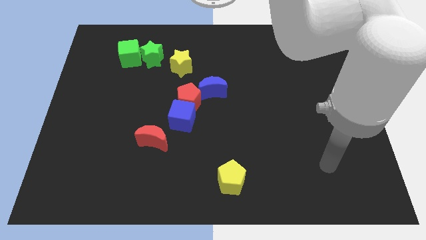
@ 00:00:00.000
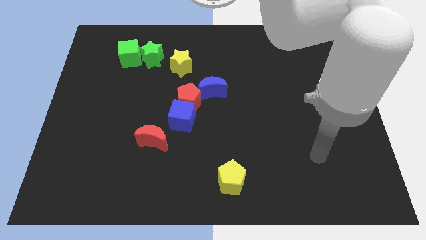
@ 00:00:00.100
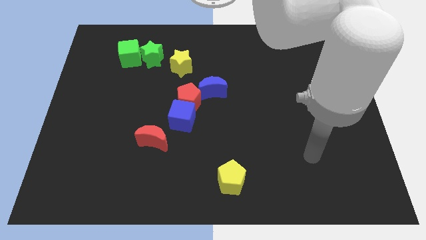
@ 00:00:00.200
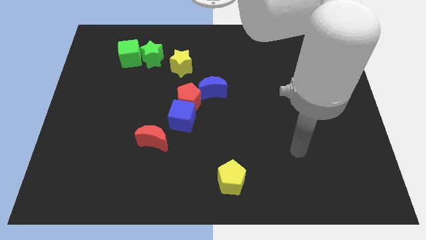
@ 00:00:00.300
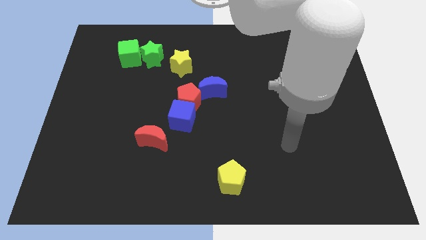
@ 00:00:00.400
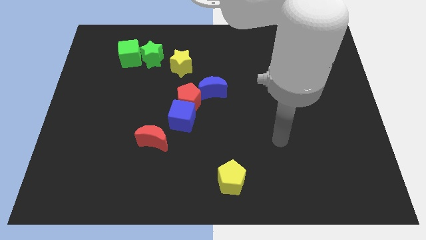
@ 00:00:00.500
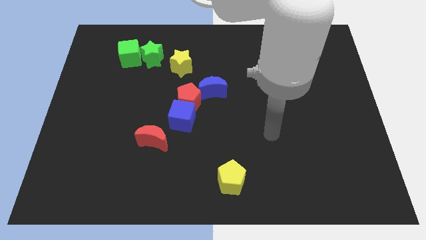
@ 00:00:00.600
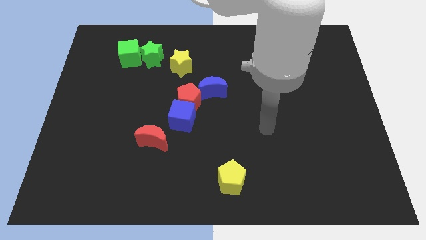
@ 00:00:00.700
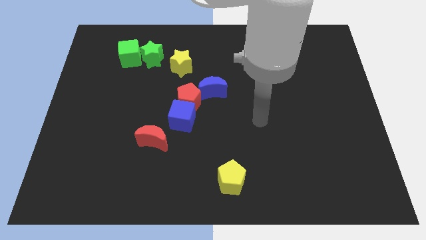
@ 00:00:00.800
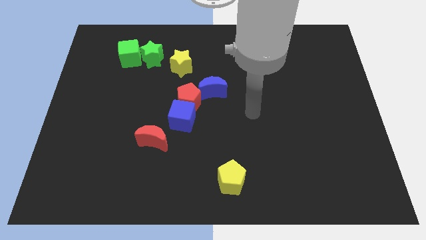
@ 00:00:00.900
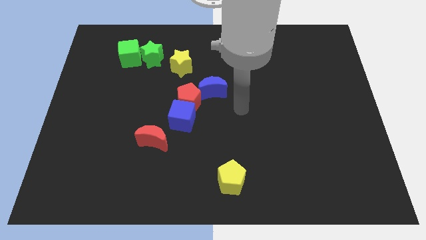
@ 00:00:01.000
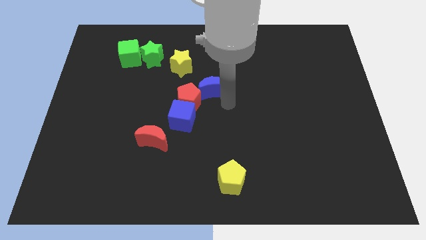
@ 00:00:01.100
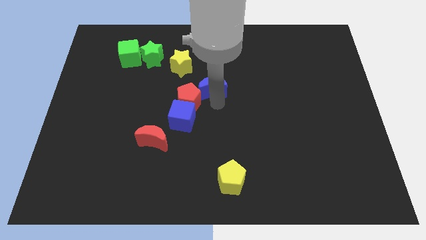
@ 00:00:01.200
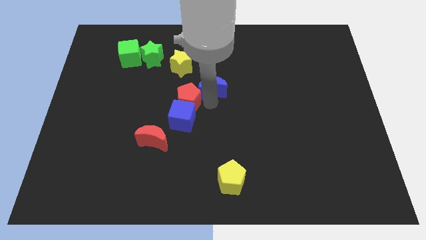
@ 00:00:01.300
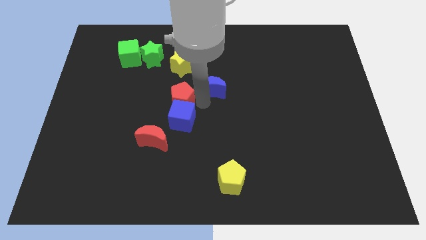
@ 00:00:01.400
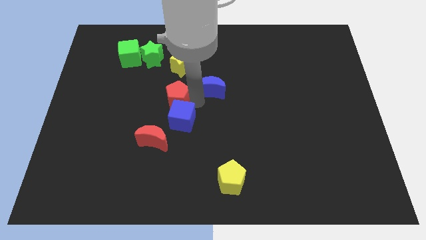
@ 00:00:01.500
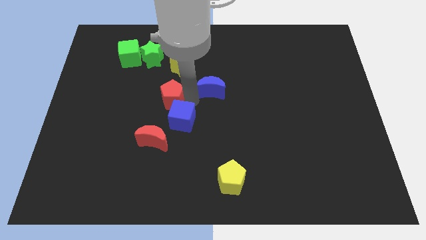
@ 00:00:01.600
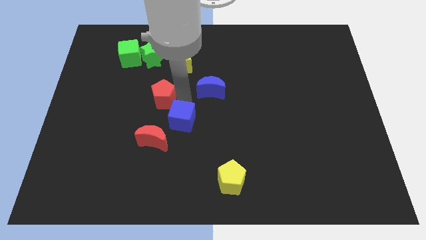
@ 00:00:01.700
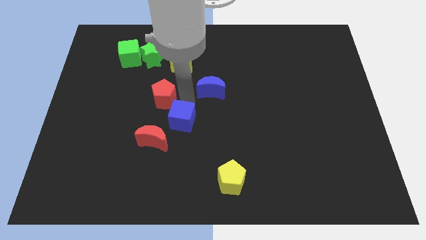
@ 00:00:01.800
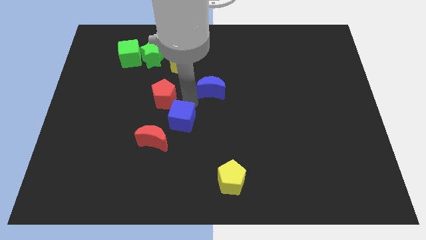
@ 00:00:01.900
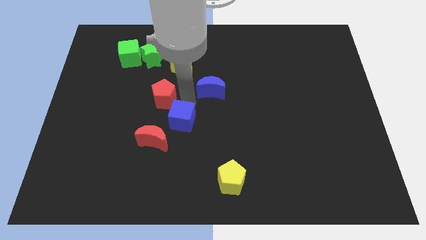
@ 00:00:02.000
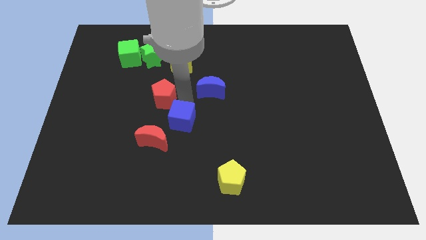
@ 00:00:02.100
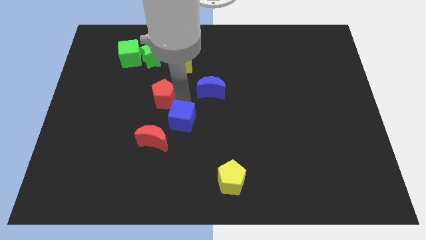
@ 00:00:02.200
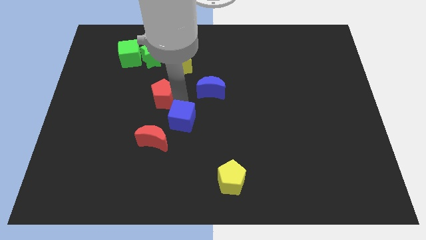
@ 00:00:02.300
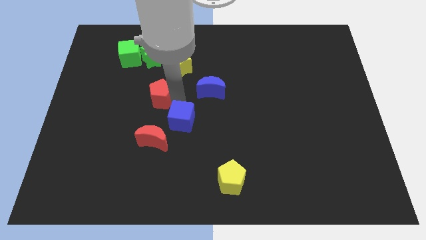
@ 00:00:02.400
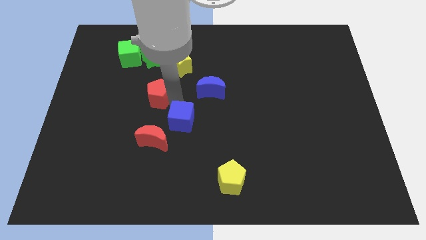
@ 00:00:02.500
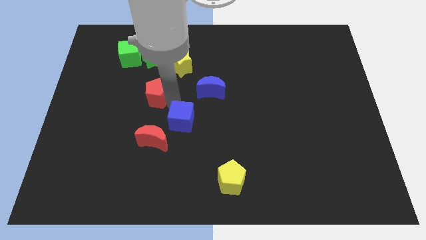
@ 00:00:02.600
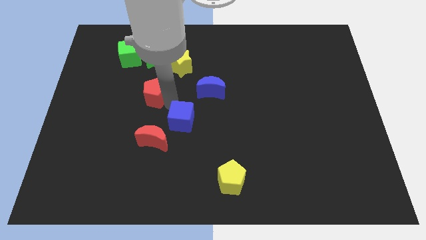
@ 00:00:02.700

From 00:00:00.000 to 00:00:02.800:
move the red pentagon away from the blue cube and blue moon

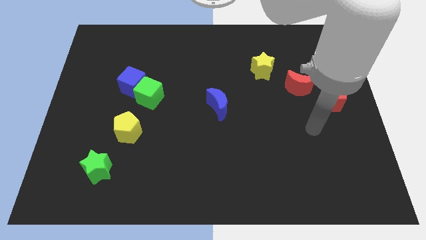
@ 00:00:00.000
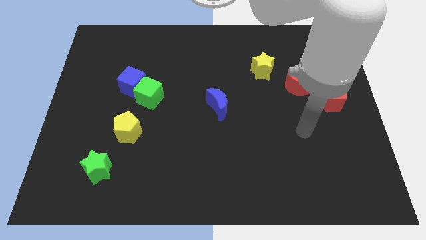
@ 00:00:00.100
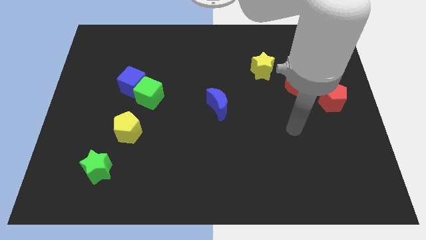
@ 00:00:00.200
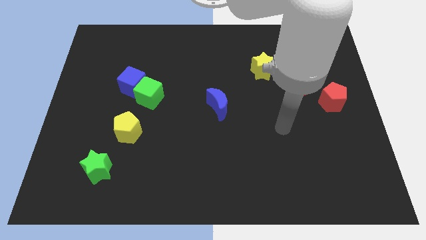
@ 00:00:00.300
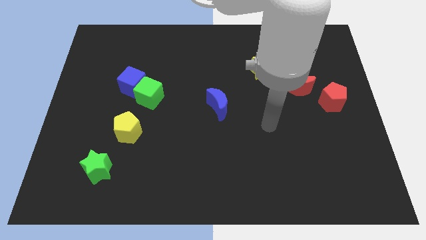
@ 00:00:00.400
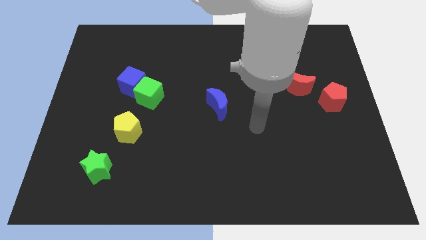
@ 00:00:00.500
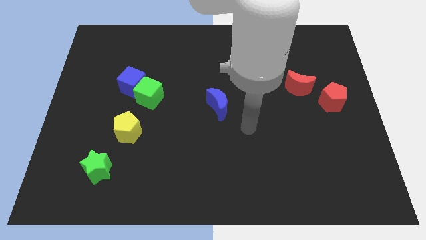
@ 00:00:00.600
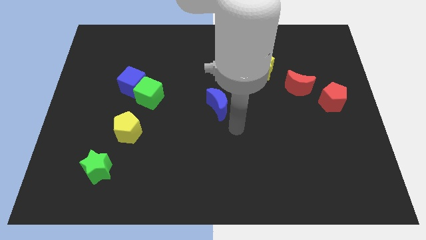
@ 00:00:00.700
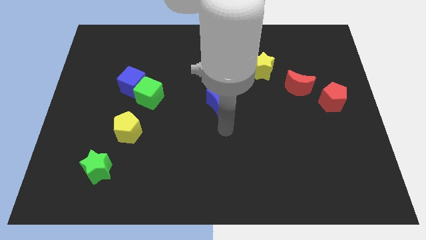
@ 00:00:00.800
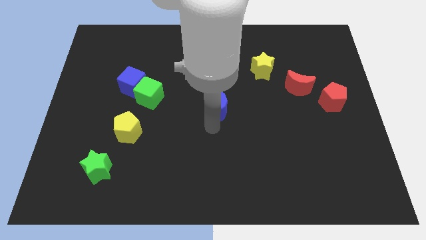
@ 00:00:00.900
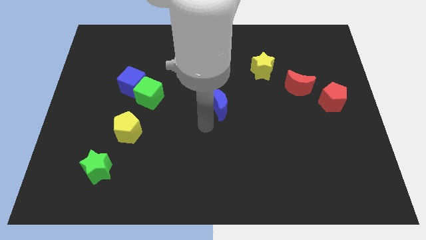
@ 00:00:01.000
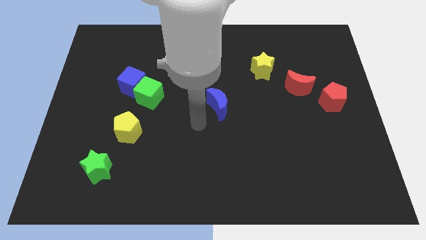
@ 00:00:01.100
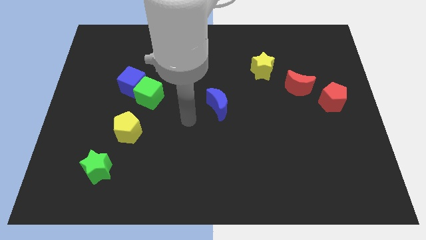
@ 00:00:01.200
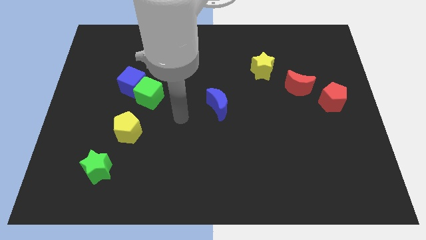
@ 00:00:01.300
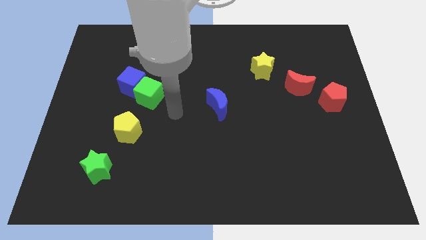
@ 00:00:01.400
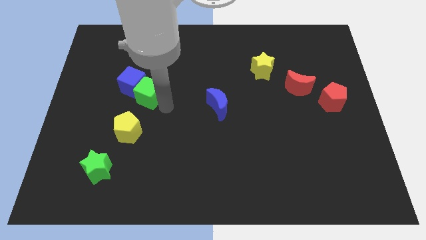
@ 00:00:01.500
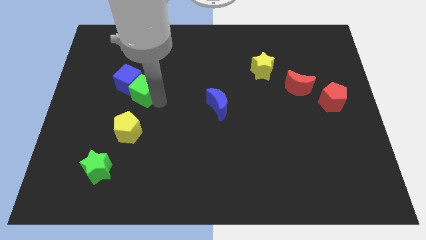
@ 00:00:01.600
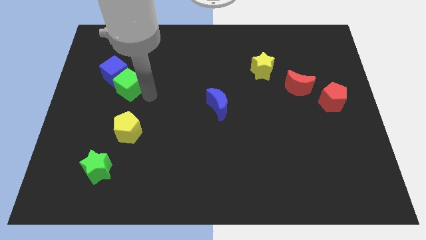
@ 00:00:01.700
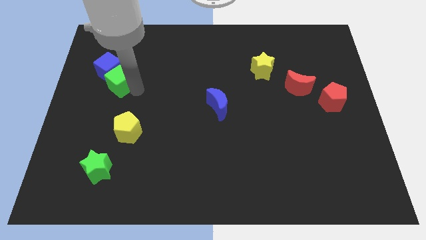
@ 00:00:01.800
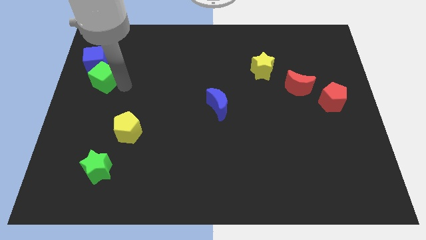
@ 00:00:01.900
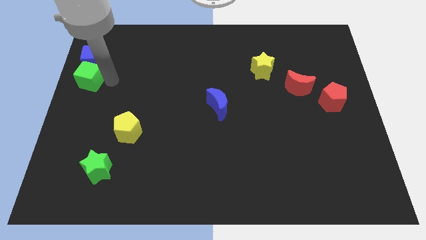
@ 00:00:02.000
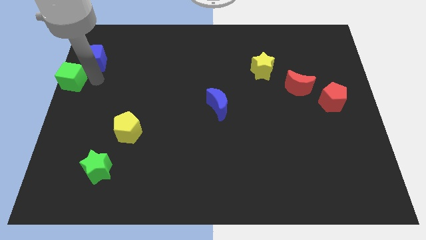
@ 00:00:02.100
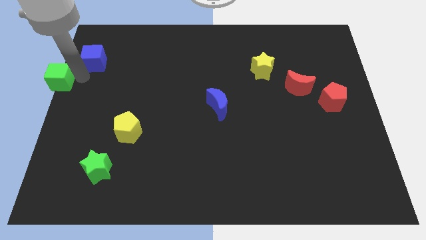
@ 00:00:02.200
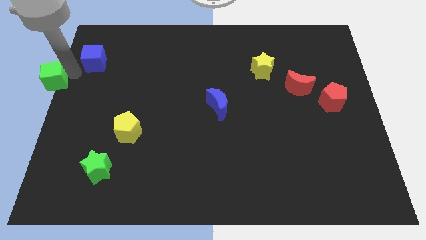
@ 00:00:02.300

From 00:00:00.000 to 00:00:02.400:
pull the blue cube apart from the green cube

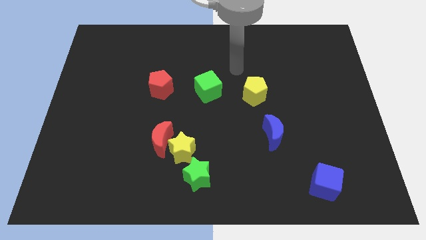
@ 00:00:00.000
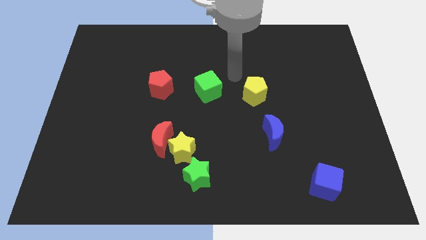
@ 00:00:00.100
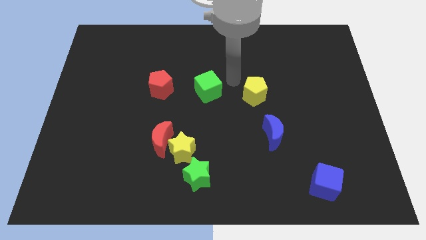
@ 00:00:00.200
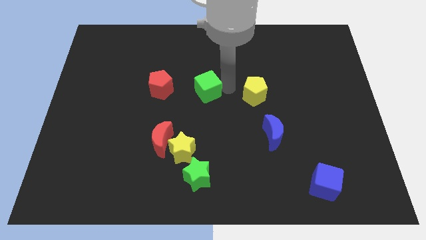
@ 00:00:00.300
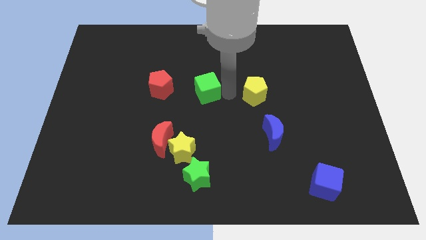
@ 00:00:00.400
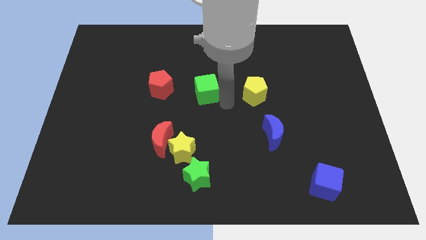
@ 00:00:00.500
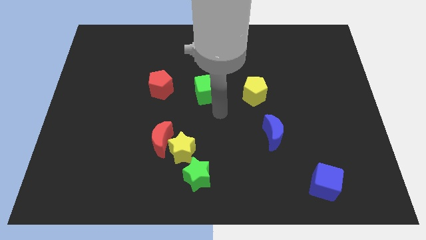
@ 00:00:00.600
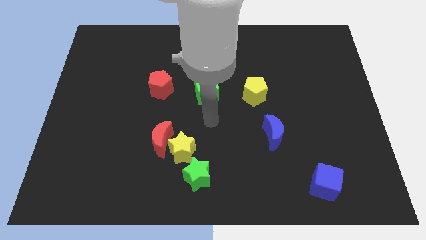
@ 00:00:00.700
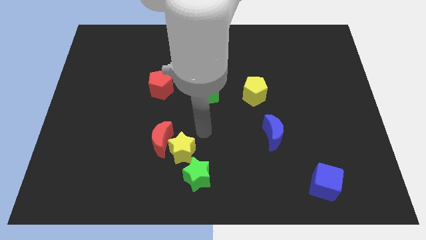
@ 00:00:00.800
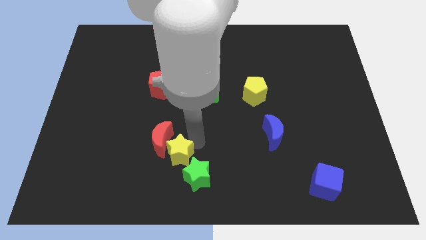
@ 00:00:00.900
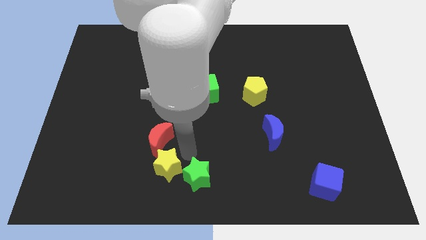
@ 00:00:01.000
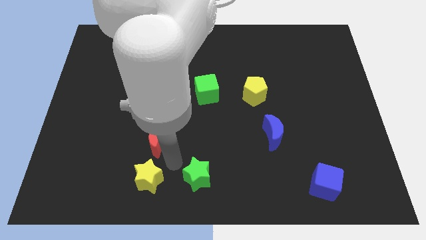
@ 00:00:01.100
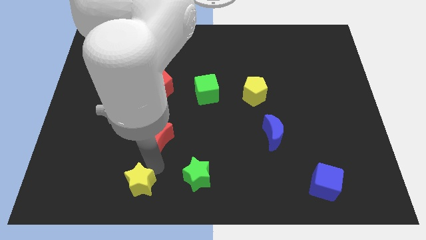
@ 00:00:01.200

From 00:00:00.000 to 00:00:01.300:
move the red moon away from the yellow star

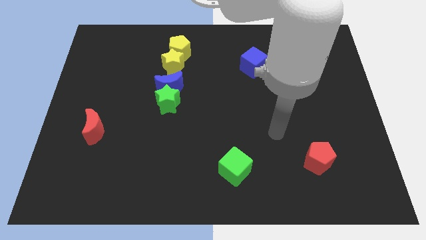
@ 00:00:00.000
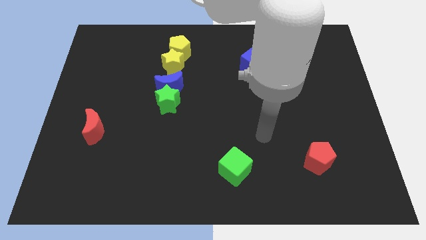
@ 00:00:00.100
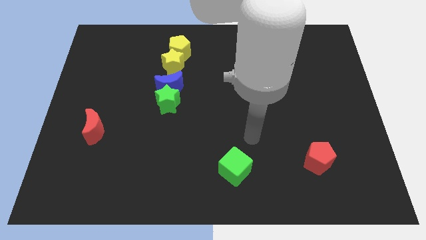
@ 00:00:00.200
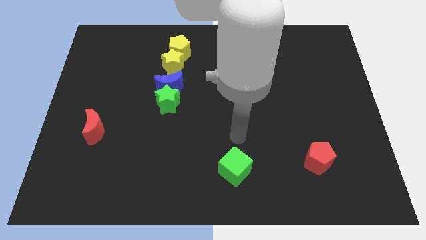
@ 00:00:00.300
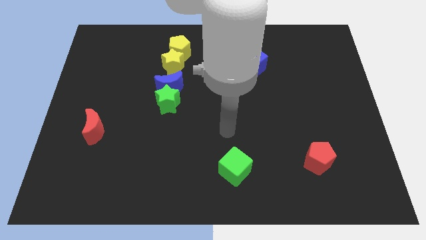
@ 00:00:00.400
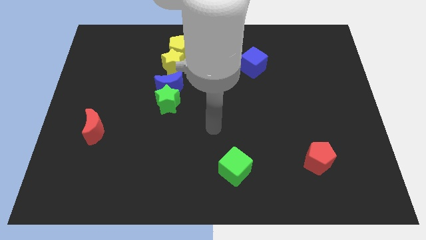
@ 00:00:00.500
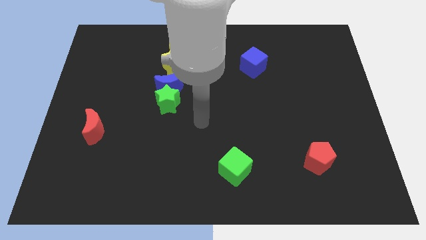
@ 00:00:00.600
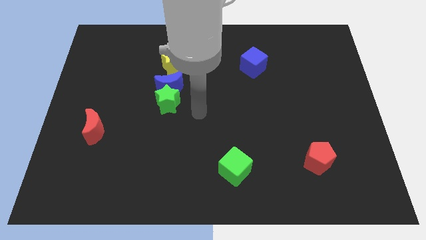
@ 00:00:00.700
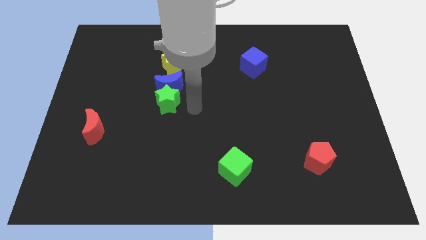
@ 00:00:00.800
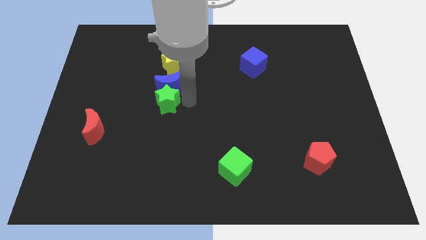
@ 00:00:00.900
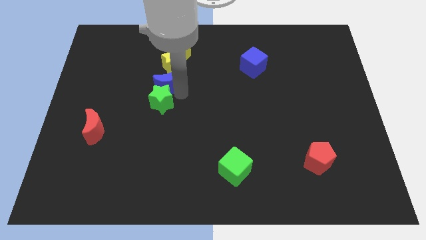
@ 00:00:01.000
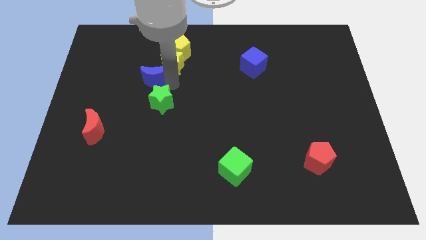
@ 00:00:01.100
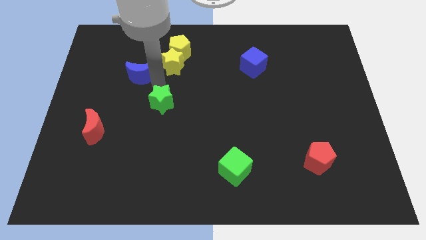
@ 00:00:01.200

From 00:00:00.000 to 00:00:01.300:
pull the green star apart from the blue moon

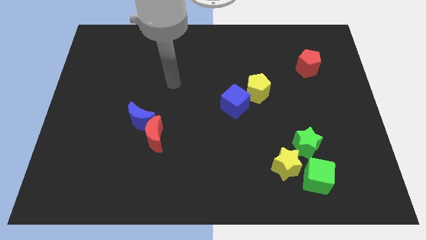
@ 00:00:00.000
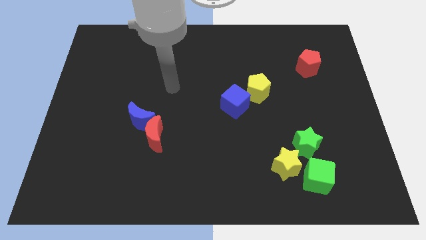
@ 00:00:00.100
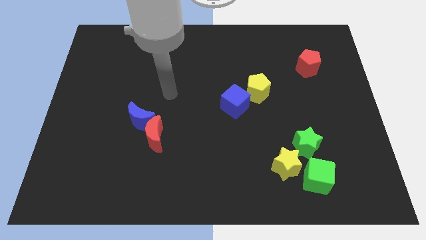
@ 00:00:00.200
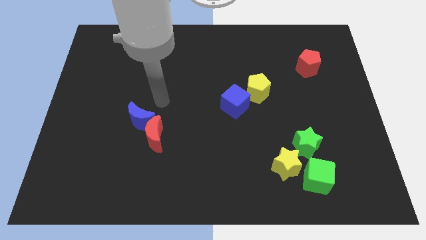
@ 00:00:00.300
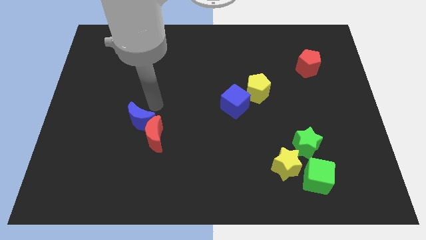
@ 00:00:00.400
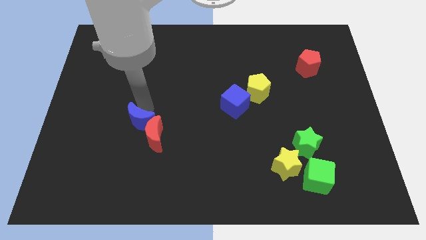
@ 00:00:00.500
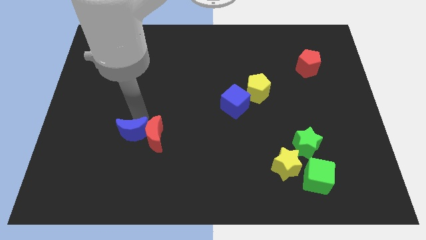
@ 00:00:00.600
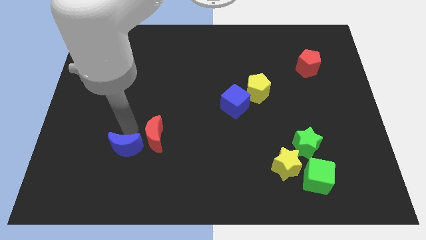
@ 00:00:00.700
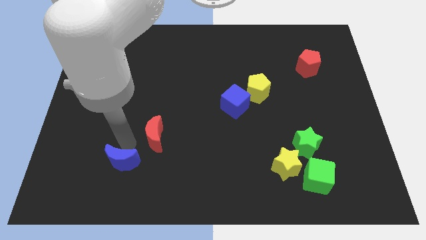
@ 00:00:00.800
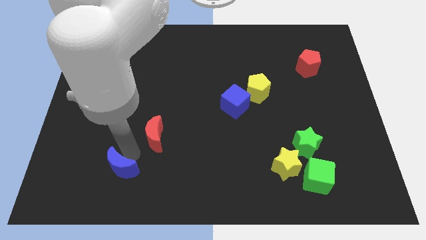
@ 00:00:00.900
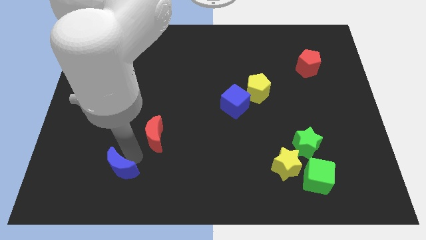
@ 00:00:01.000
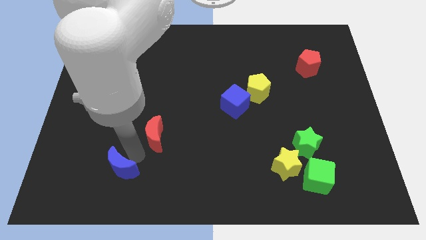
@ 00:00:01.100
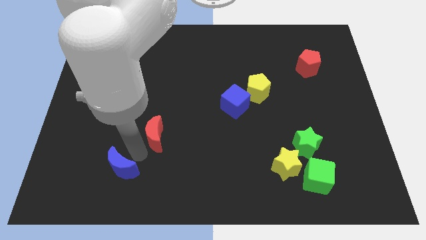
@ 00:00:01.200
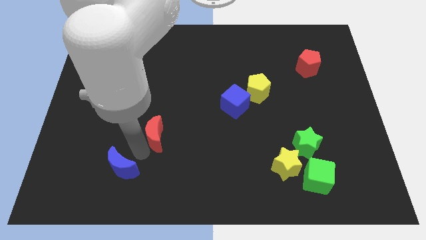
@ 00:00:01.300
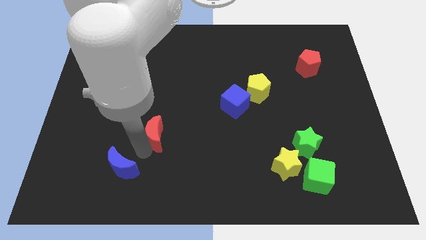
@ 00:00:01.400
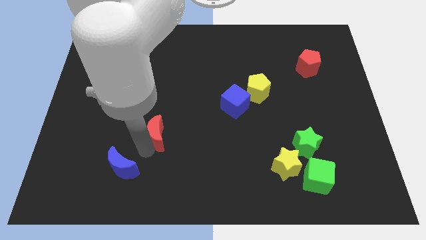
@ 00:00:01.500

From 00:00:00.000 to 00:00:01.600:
separate the red moon from the blue moon
